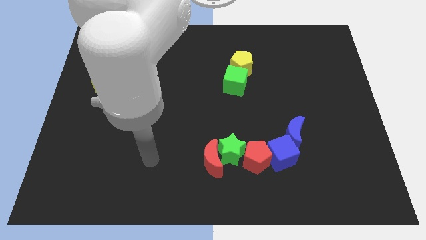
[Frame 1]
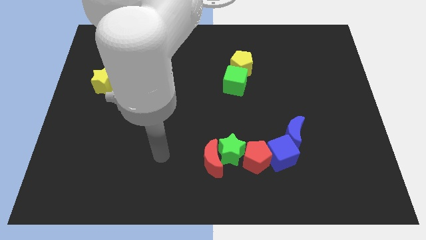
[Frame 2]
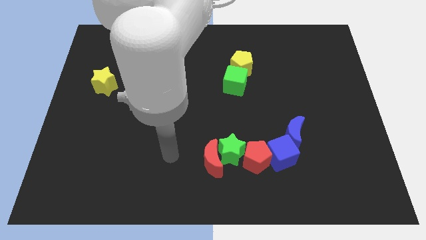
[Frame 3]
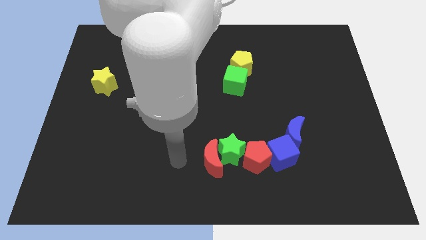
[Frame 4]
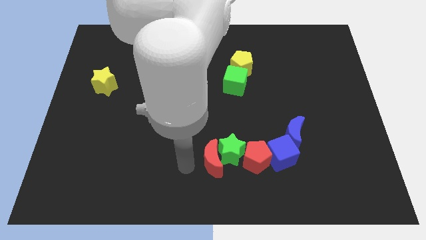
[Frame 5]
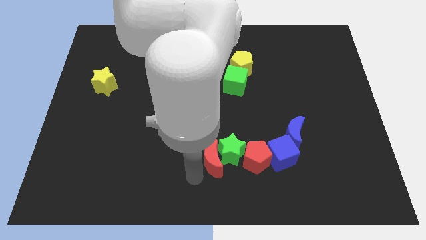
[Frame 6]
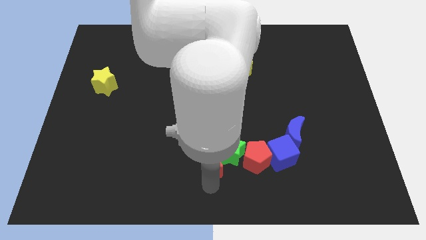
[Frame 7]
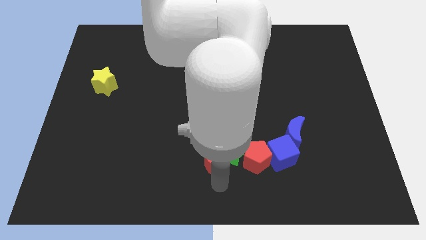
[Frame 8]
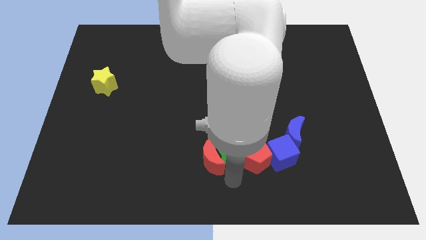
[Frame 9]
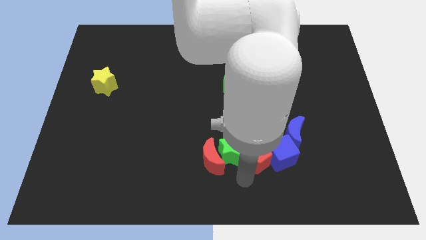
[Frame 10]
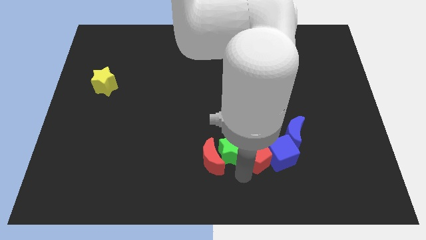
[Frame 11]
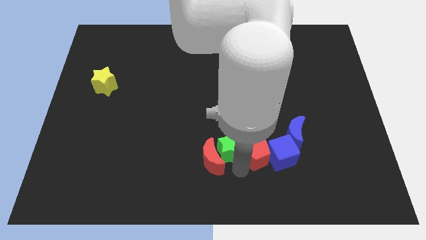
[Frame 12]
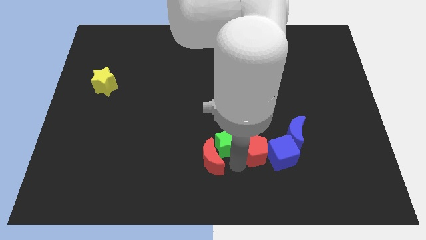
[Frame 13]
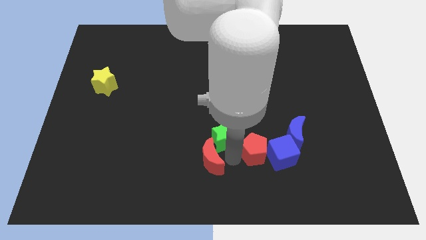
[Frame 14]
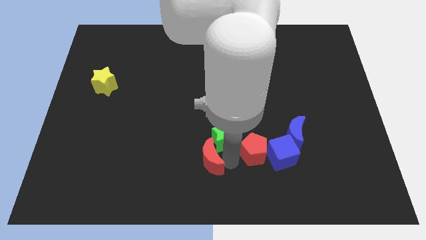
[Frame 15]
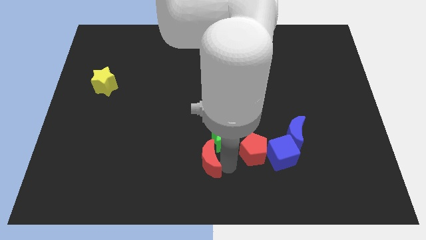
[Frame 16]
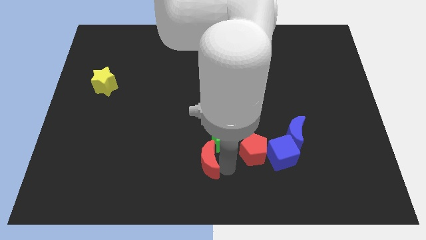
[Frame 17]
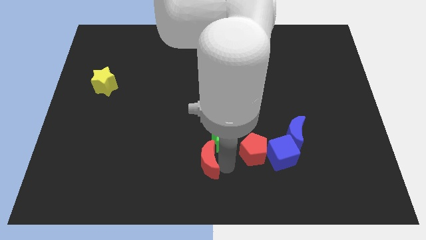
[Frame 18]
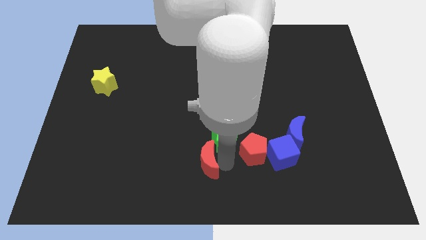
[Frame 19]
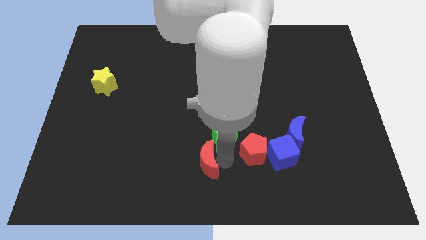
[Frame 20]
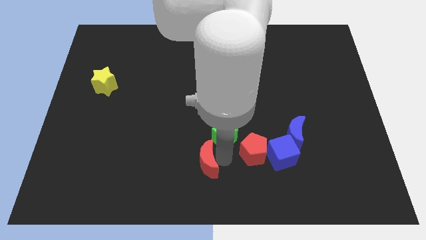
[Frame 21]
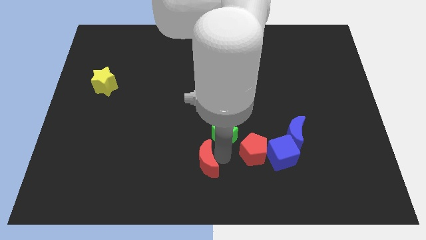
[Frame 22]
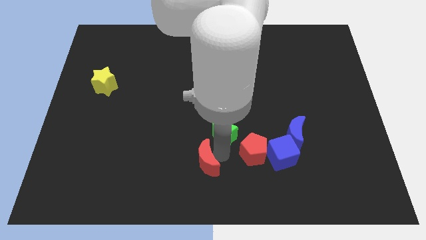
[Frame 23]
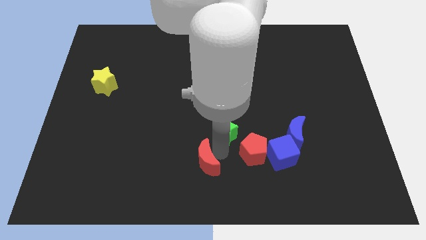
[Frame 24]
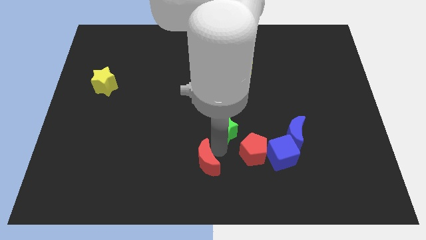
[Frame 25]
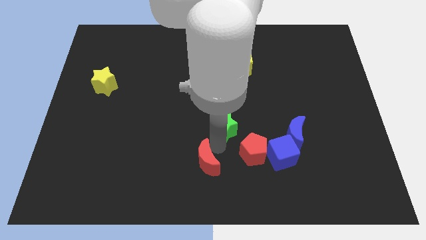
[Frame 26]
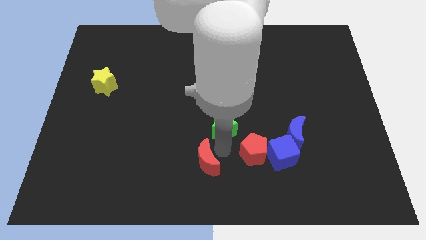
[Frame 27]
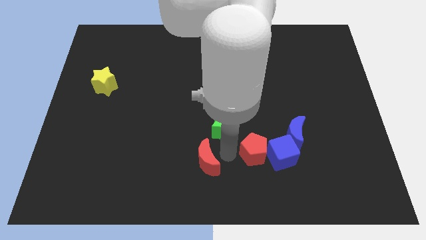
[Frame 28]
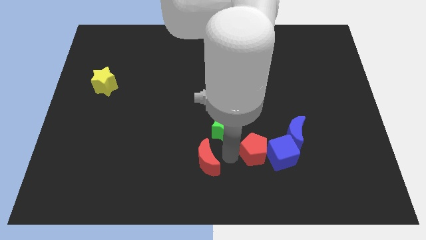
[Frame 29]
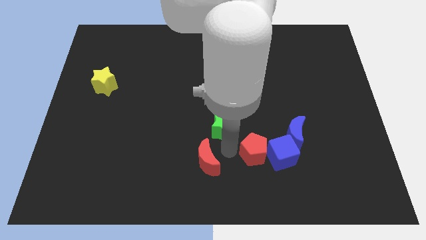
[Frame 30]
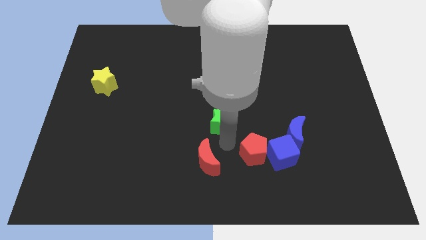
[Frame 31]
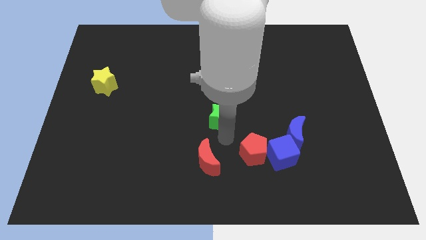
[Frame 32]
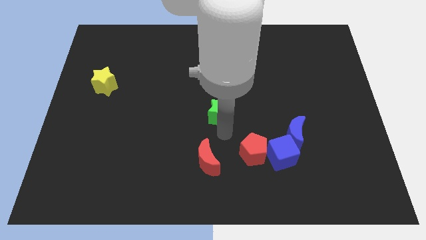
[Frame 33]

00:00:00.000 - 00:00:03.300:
pull the green star apart from the red moon and red pentagon

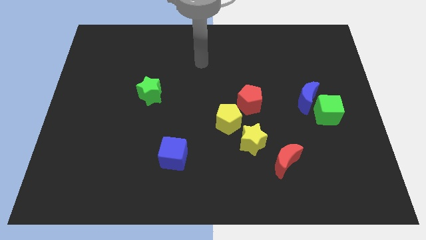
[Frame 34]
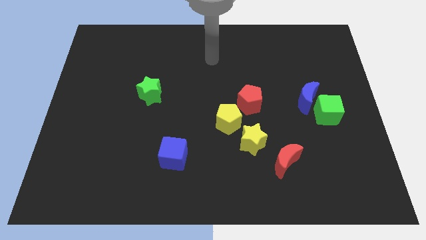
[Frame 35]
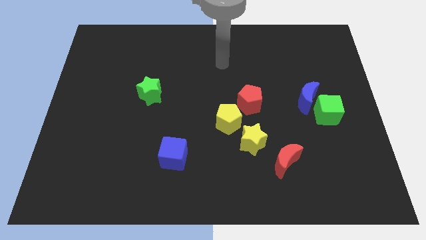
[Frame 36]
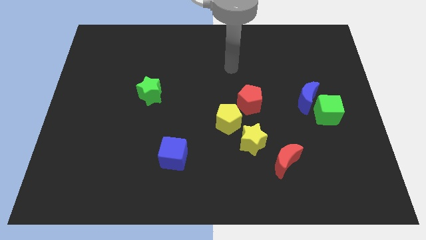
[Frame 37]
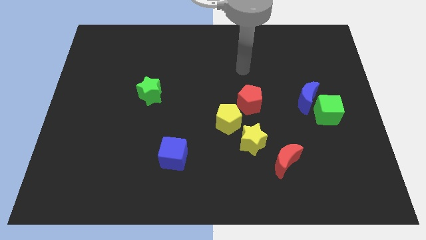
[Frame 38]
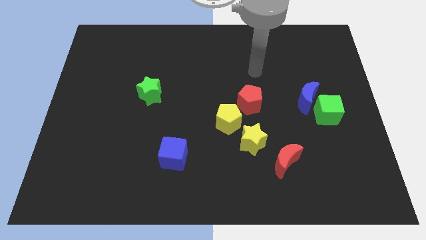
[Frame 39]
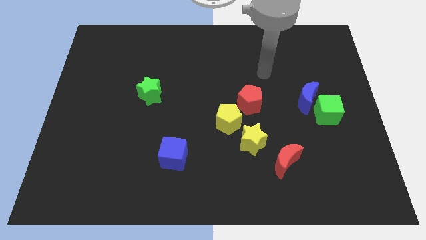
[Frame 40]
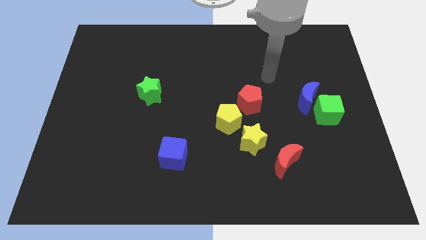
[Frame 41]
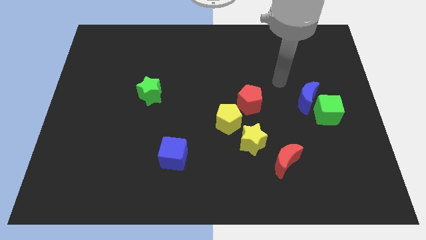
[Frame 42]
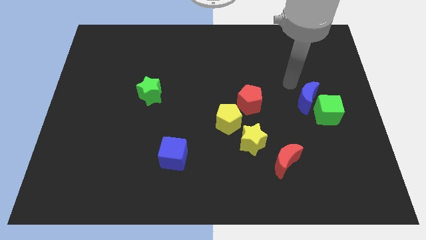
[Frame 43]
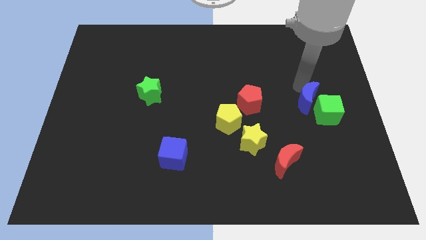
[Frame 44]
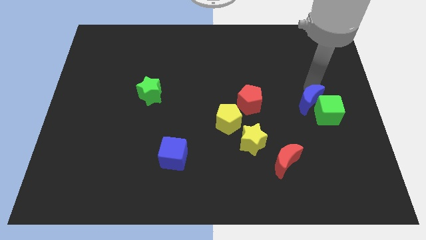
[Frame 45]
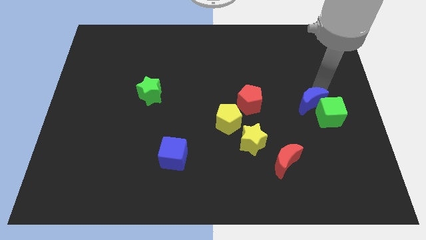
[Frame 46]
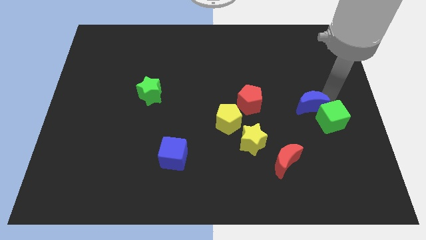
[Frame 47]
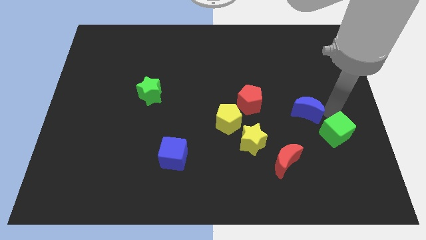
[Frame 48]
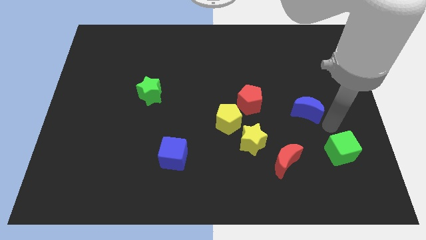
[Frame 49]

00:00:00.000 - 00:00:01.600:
move the blue moon away from the green cube

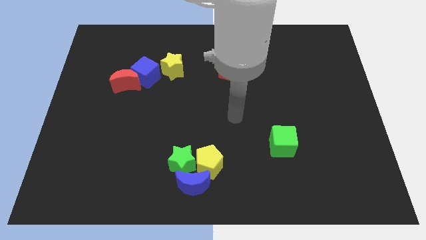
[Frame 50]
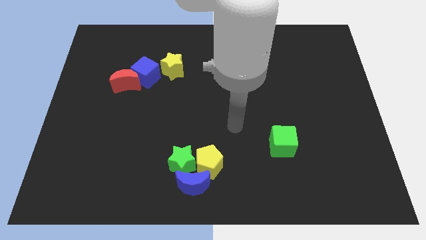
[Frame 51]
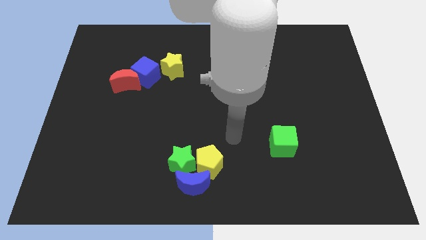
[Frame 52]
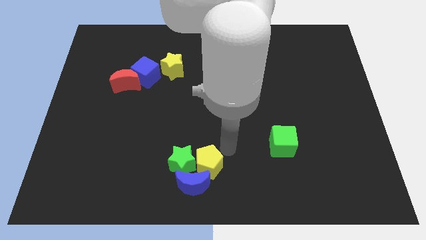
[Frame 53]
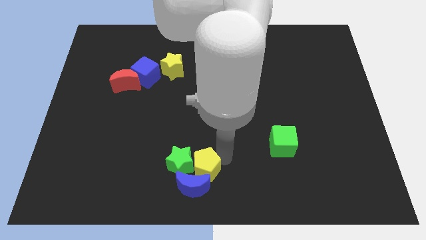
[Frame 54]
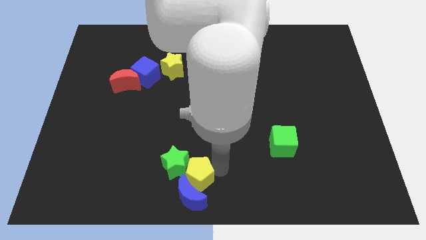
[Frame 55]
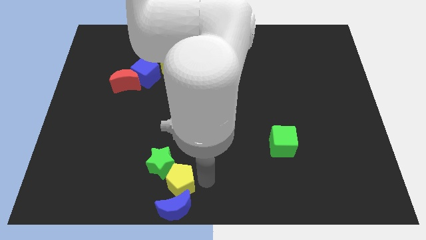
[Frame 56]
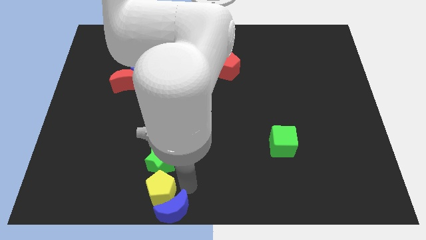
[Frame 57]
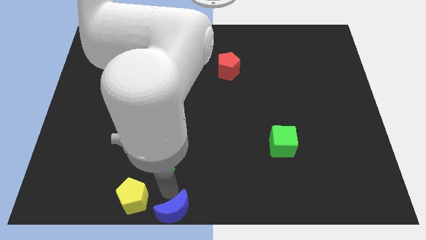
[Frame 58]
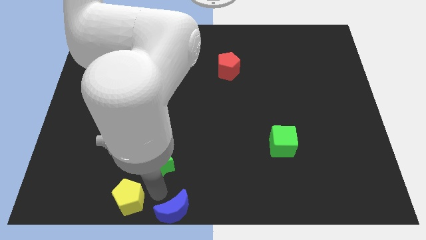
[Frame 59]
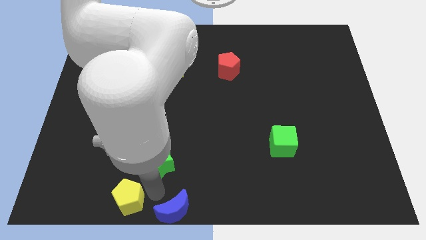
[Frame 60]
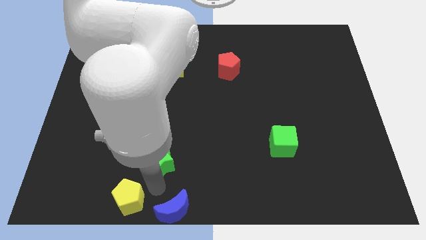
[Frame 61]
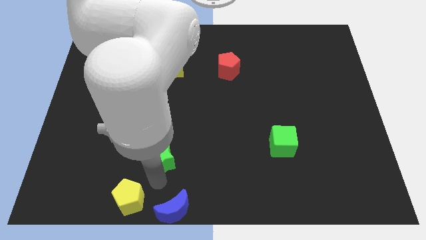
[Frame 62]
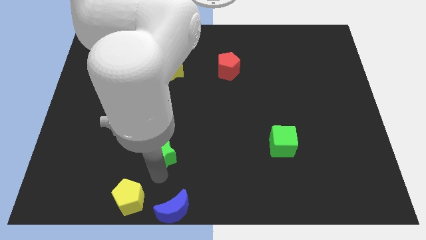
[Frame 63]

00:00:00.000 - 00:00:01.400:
separate the green star from the blue moon and yellow pentagon

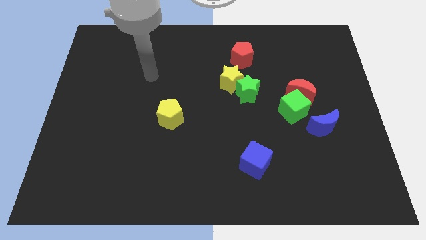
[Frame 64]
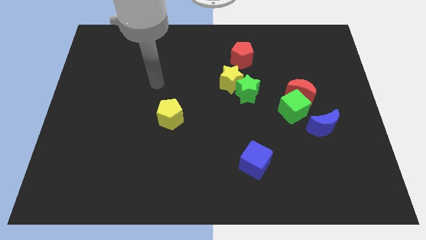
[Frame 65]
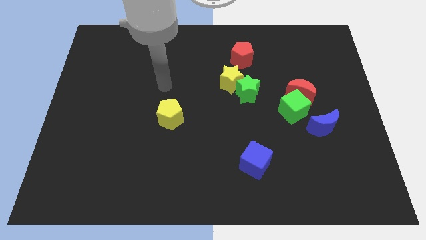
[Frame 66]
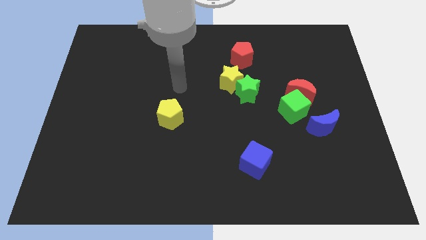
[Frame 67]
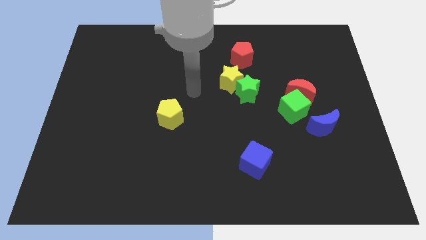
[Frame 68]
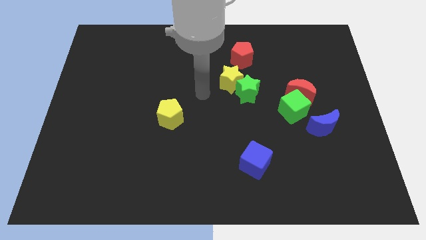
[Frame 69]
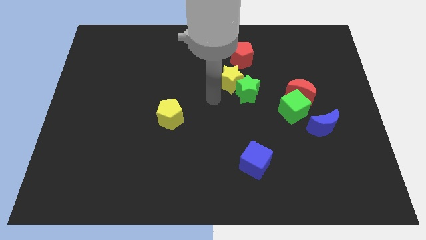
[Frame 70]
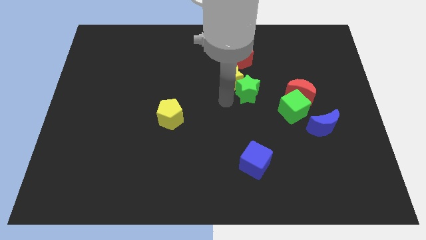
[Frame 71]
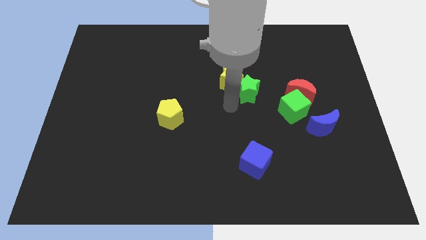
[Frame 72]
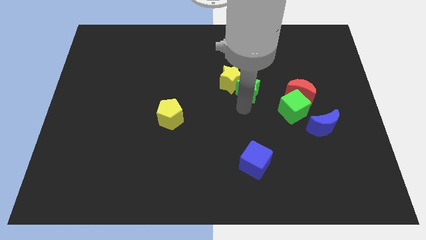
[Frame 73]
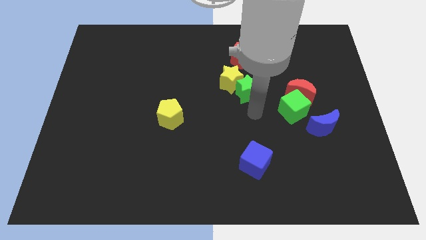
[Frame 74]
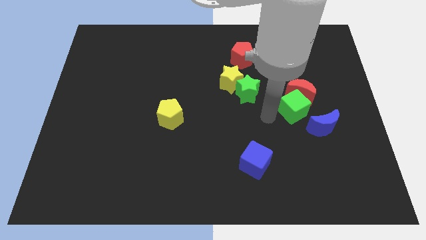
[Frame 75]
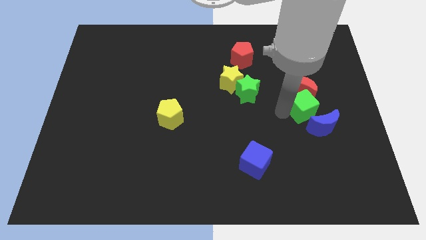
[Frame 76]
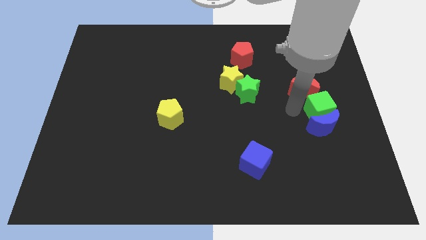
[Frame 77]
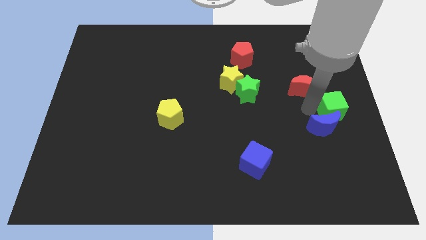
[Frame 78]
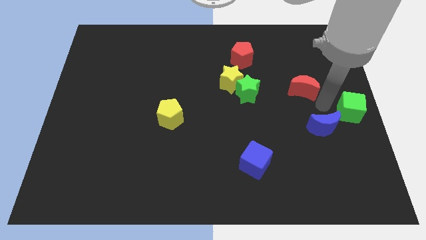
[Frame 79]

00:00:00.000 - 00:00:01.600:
move the red moon away from the green cube

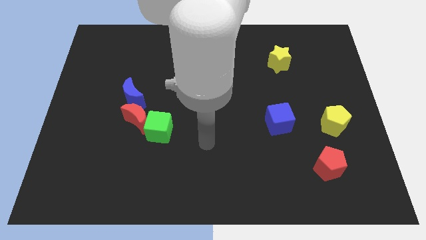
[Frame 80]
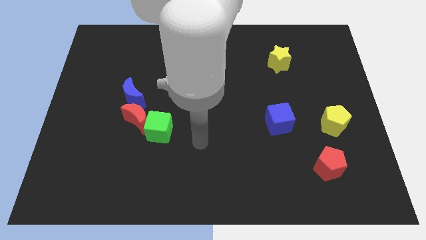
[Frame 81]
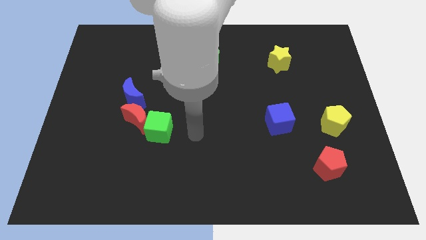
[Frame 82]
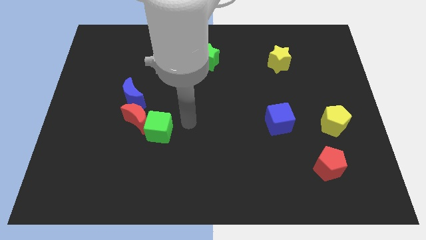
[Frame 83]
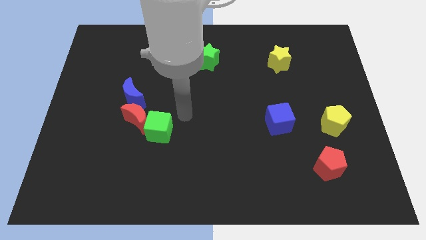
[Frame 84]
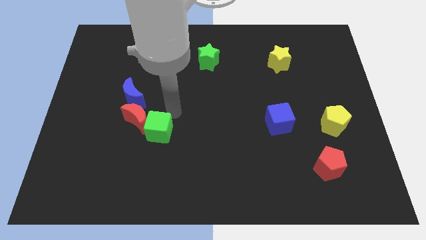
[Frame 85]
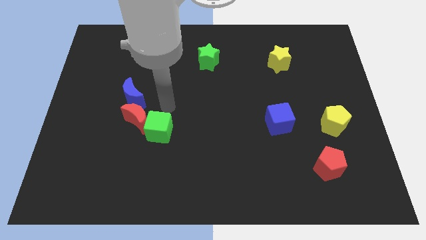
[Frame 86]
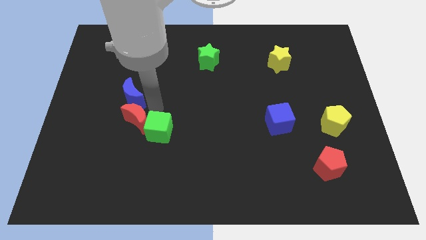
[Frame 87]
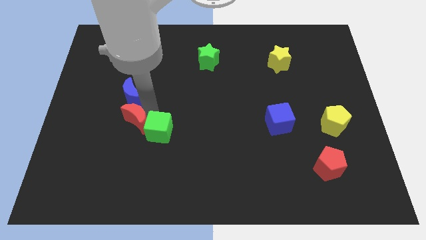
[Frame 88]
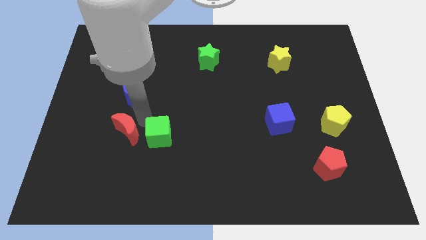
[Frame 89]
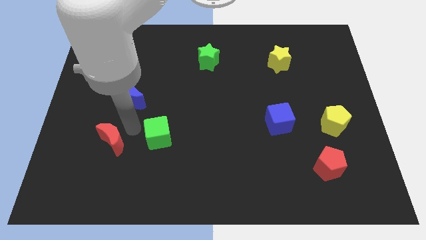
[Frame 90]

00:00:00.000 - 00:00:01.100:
pull the green cube apart from the red moon
